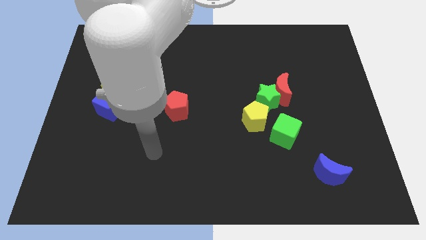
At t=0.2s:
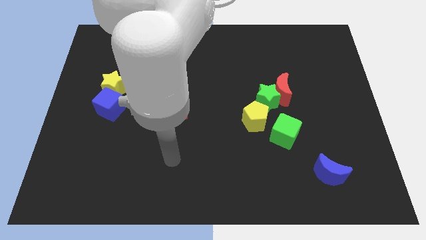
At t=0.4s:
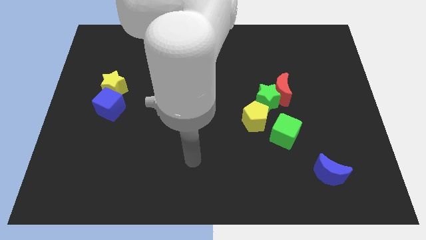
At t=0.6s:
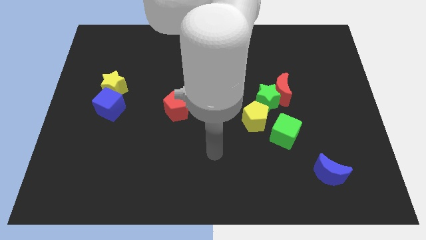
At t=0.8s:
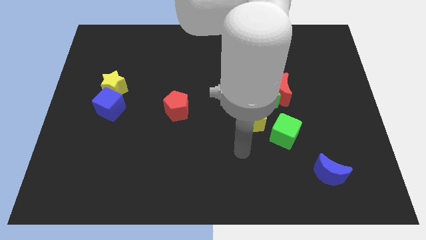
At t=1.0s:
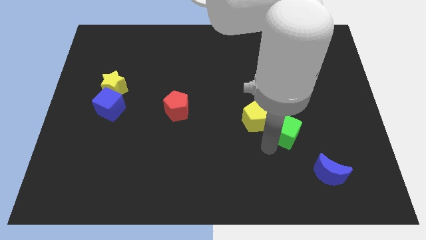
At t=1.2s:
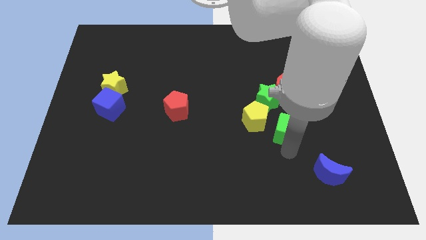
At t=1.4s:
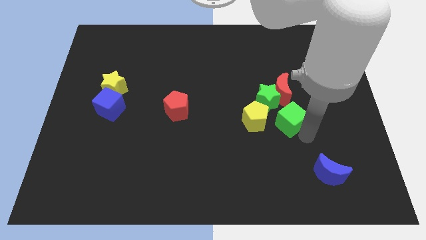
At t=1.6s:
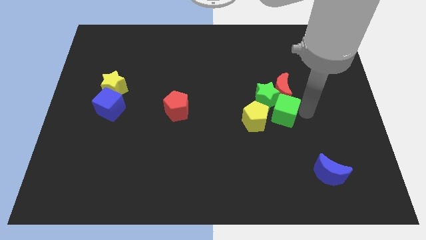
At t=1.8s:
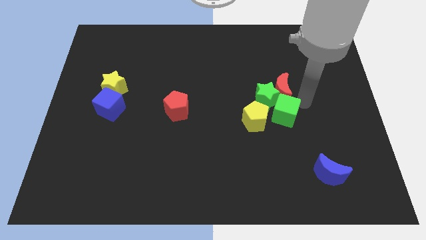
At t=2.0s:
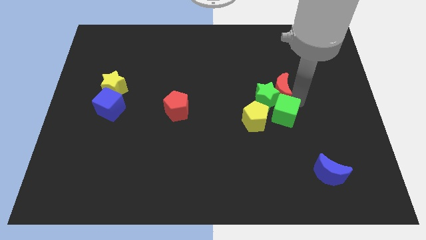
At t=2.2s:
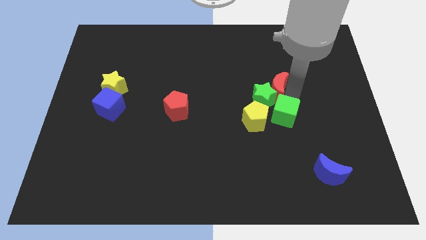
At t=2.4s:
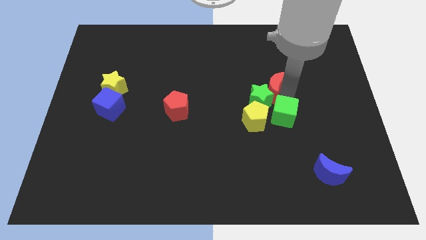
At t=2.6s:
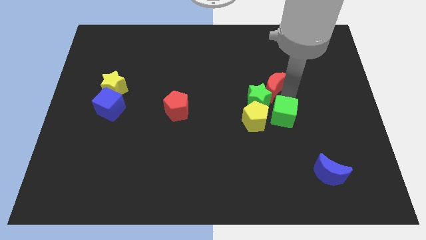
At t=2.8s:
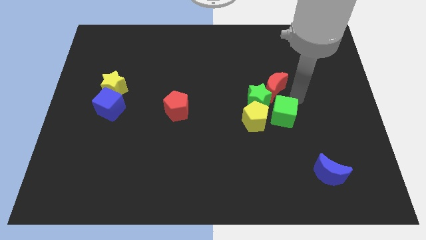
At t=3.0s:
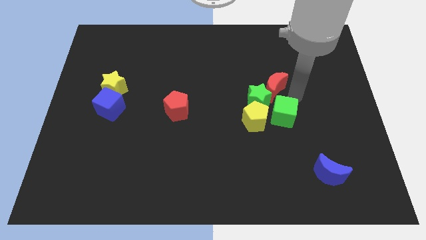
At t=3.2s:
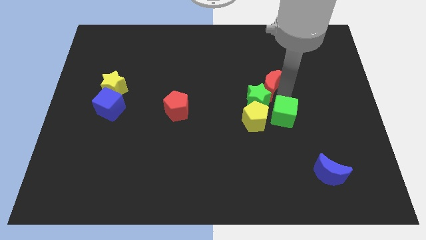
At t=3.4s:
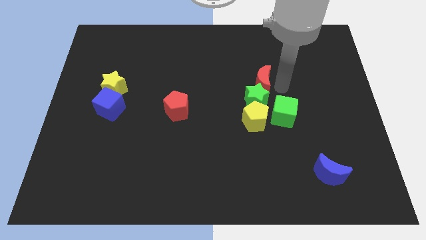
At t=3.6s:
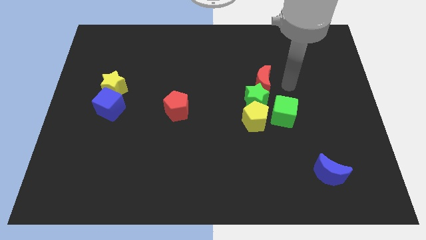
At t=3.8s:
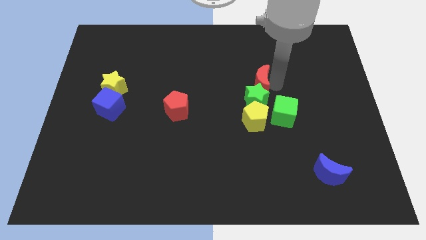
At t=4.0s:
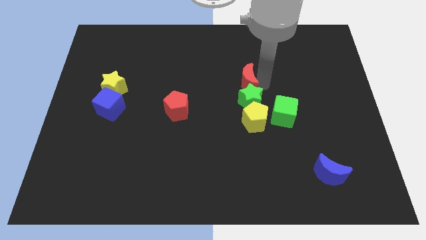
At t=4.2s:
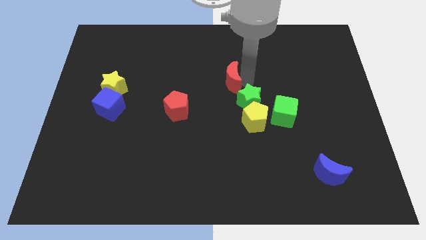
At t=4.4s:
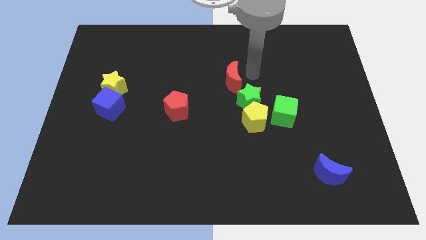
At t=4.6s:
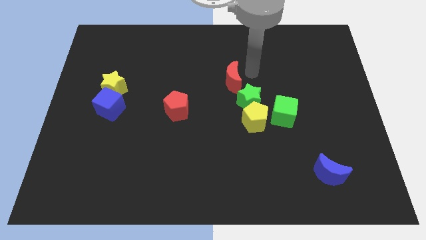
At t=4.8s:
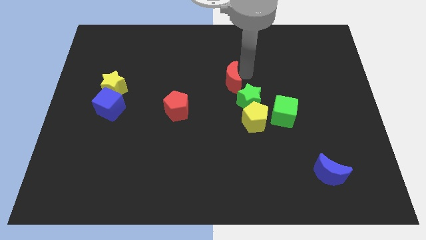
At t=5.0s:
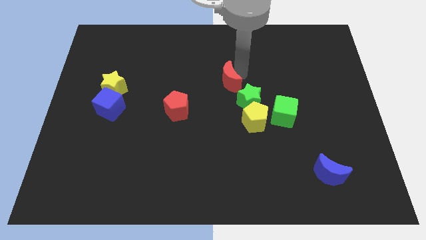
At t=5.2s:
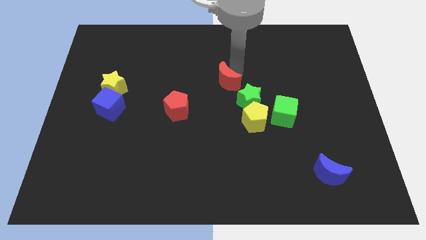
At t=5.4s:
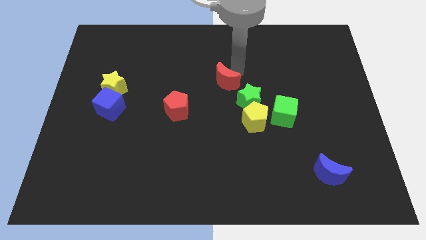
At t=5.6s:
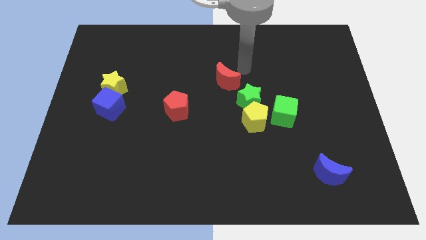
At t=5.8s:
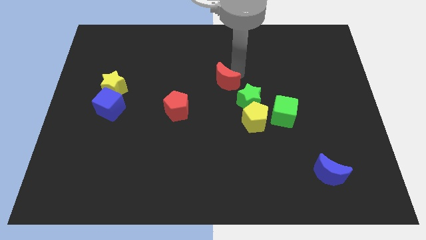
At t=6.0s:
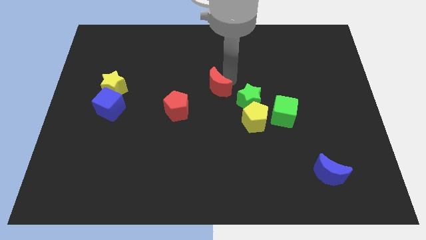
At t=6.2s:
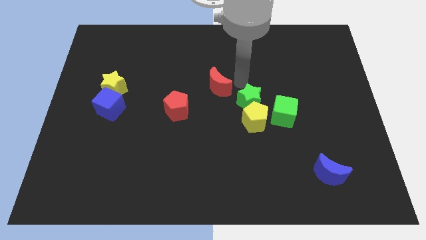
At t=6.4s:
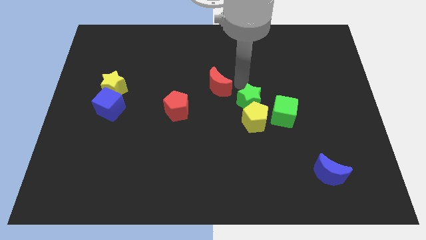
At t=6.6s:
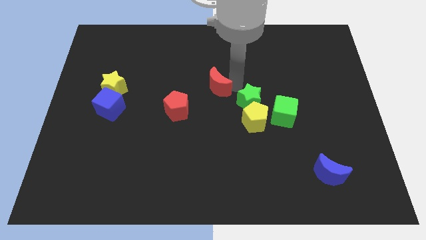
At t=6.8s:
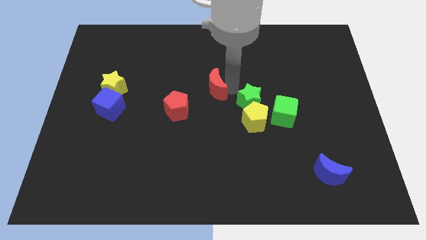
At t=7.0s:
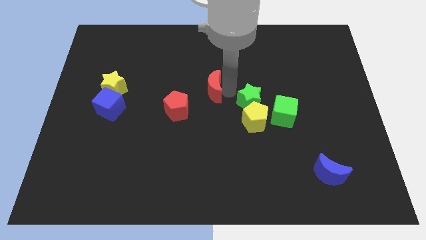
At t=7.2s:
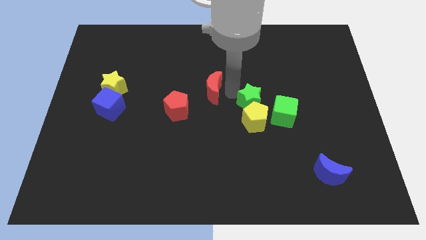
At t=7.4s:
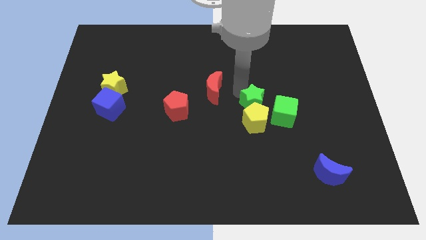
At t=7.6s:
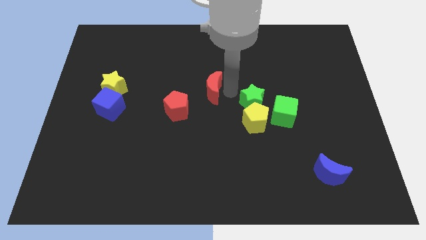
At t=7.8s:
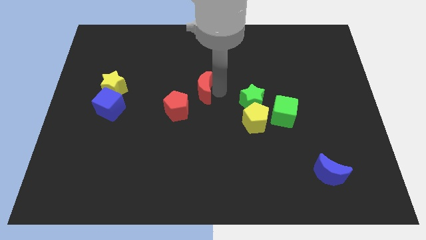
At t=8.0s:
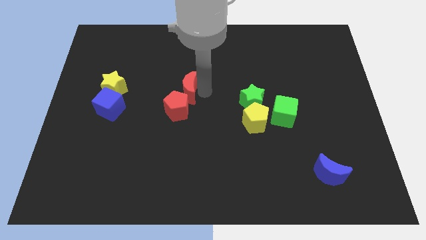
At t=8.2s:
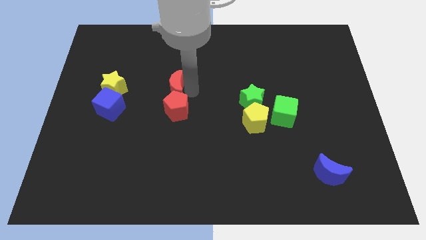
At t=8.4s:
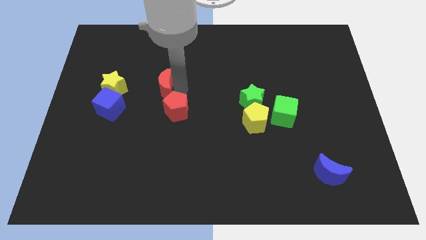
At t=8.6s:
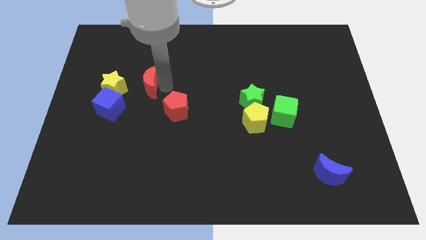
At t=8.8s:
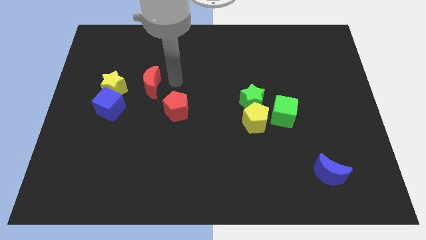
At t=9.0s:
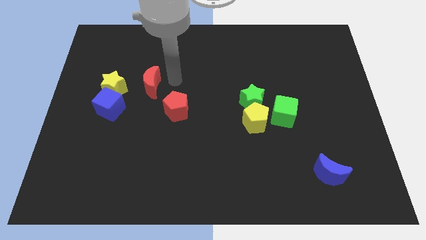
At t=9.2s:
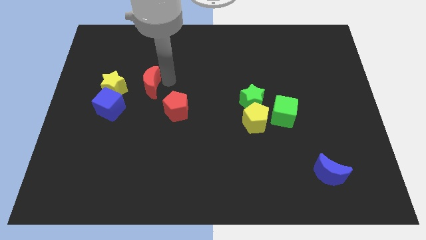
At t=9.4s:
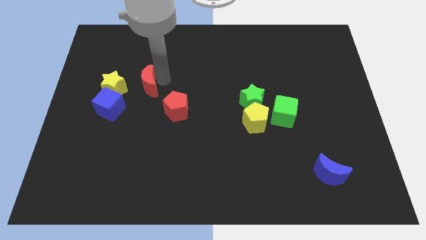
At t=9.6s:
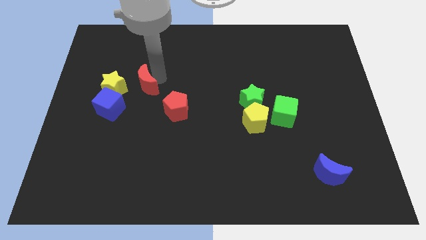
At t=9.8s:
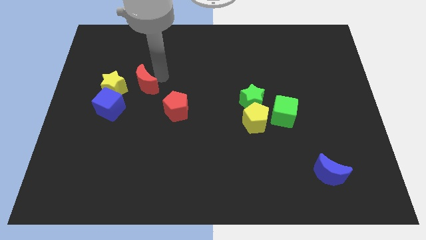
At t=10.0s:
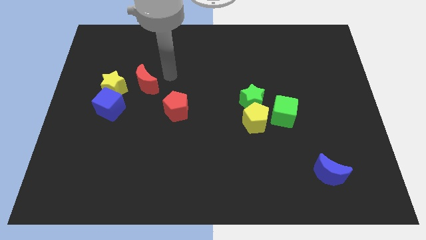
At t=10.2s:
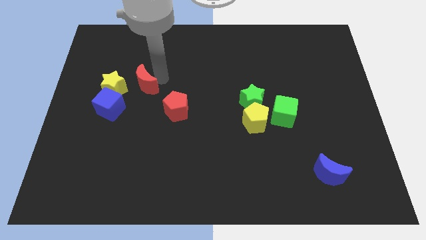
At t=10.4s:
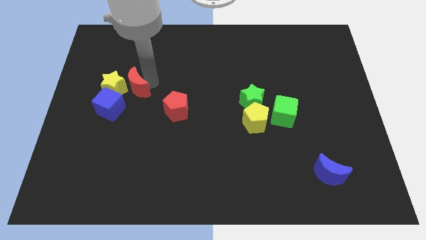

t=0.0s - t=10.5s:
push the red moon towards the yellow star

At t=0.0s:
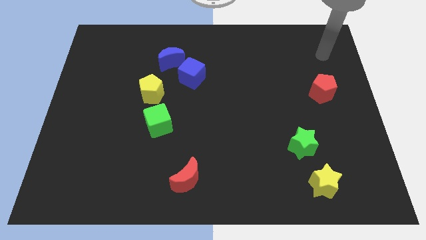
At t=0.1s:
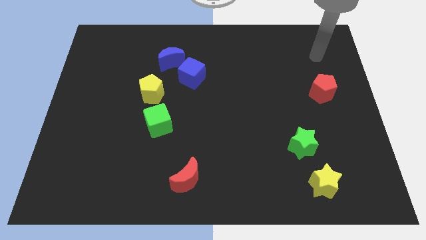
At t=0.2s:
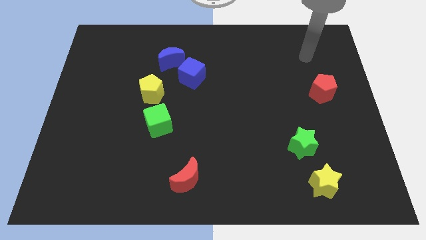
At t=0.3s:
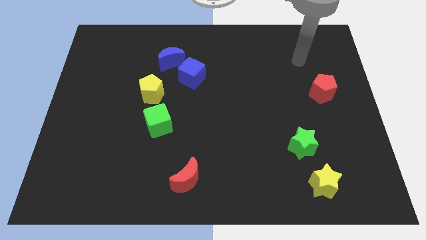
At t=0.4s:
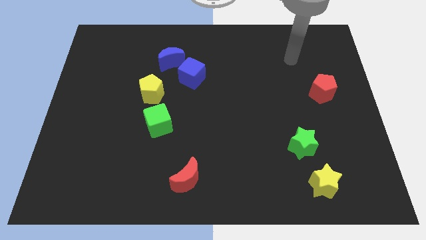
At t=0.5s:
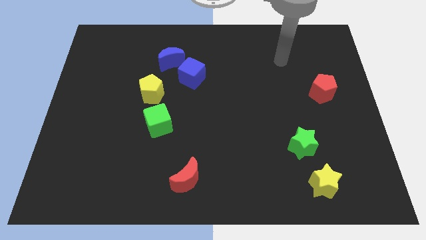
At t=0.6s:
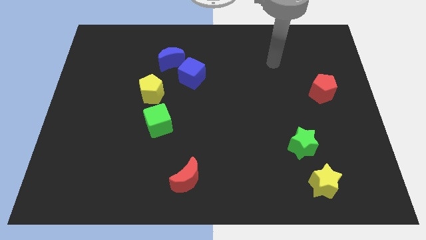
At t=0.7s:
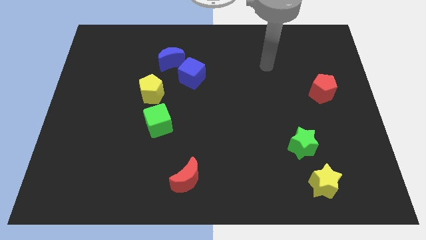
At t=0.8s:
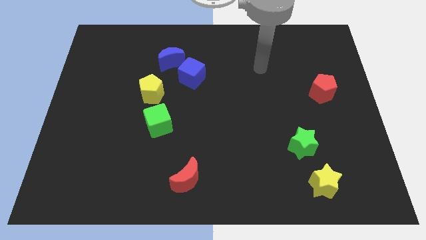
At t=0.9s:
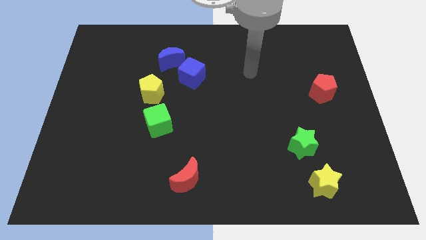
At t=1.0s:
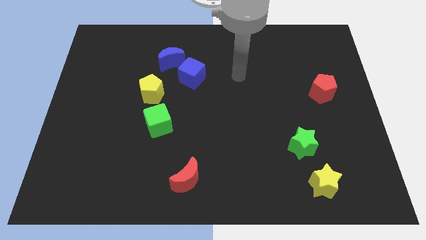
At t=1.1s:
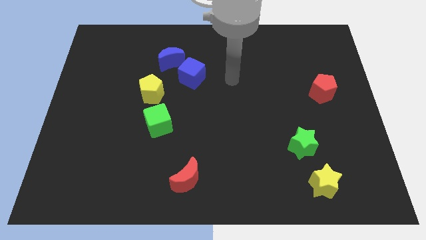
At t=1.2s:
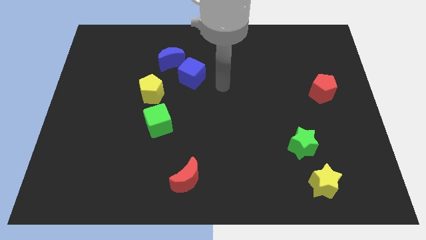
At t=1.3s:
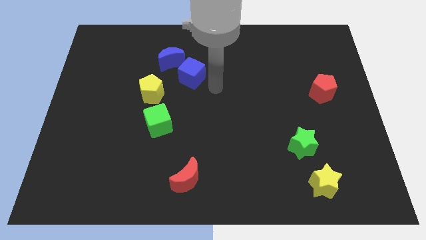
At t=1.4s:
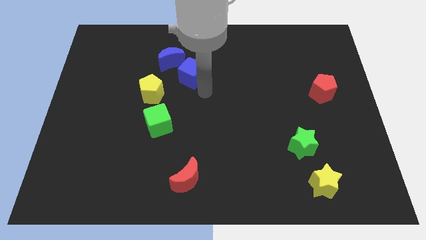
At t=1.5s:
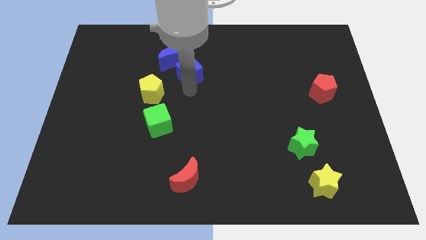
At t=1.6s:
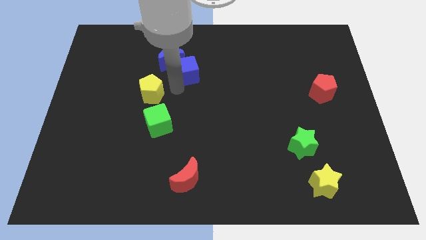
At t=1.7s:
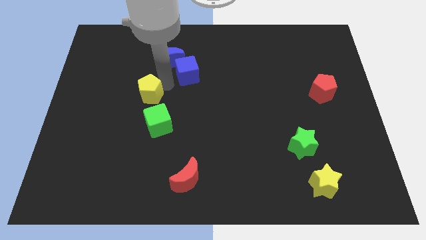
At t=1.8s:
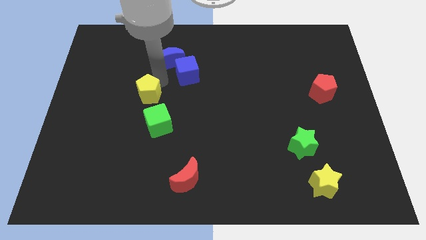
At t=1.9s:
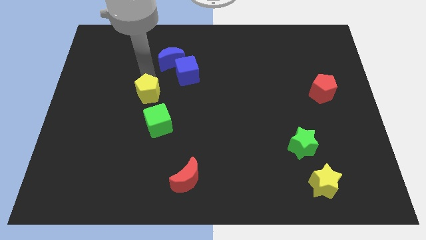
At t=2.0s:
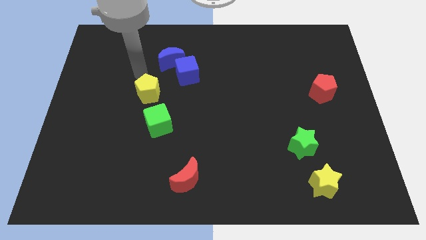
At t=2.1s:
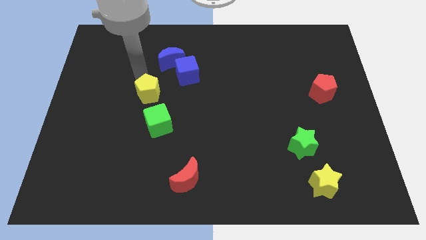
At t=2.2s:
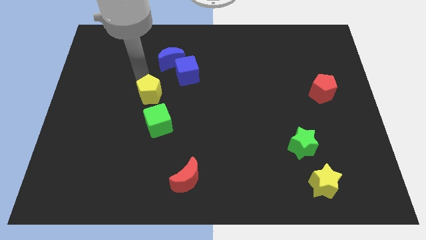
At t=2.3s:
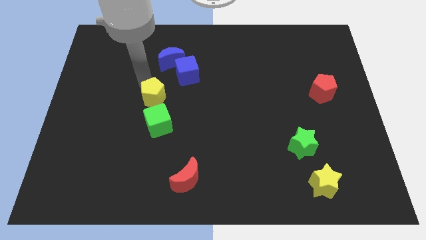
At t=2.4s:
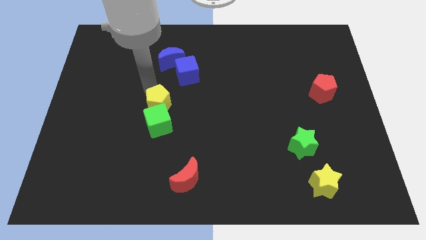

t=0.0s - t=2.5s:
slide the yellow pentagon to the green cube

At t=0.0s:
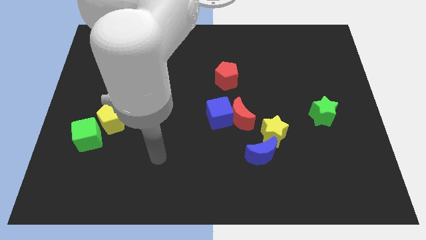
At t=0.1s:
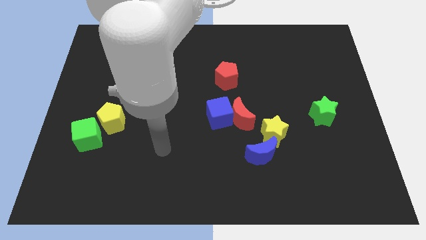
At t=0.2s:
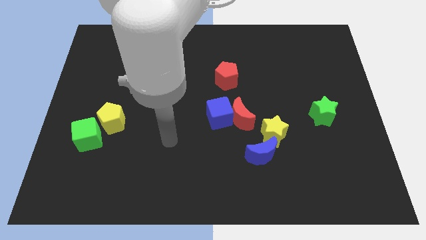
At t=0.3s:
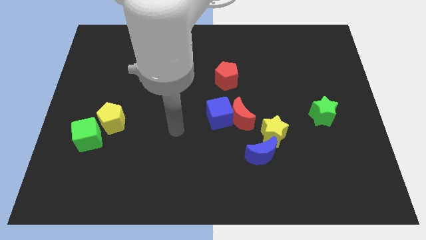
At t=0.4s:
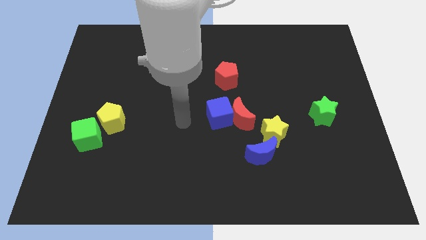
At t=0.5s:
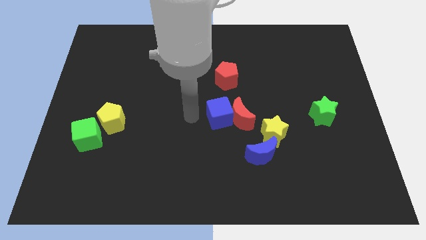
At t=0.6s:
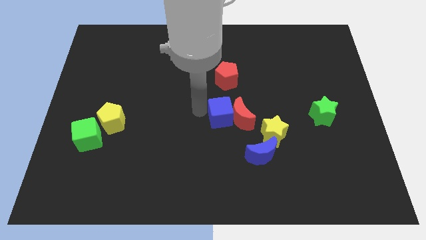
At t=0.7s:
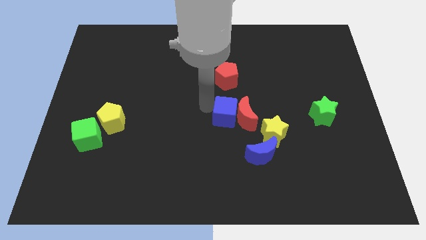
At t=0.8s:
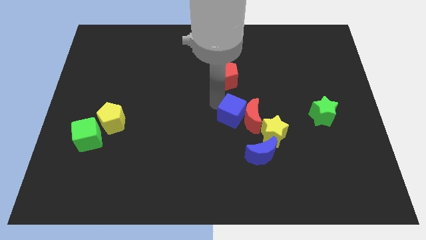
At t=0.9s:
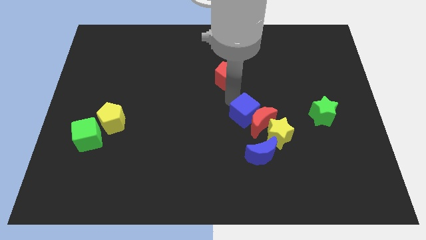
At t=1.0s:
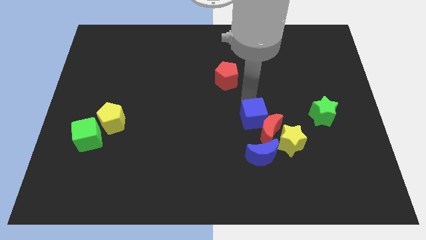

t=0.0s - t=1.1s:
move the red moon close to the blue moon
